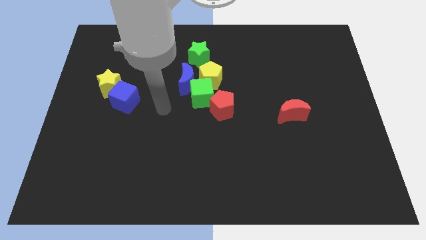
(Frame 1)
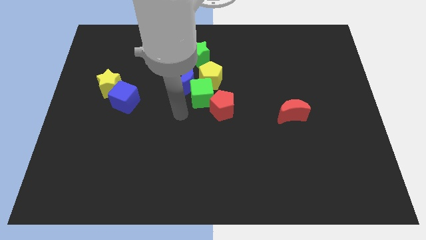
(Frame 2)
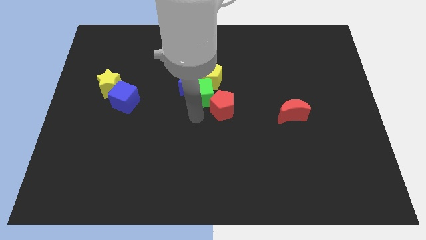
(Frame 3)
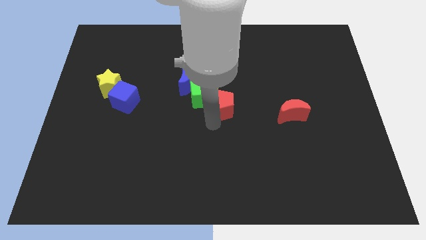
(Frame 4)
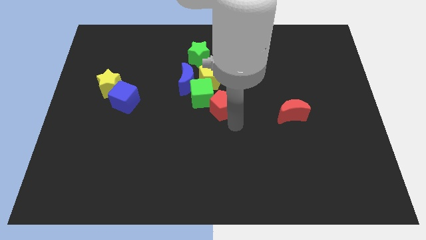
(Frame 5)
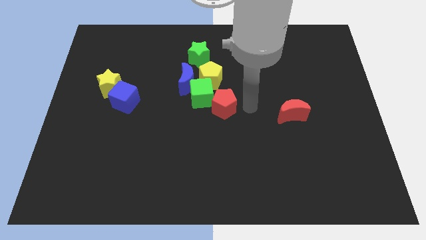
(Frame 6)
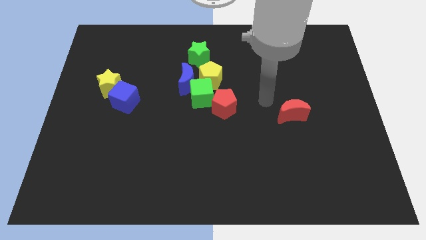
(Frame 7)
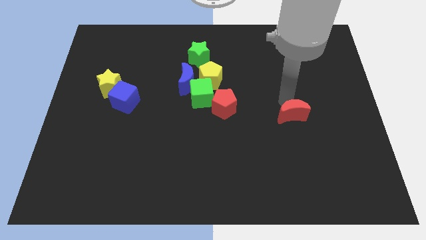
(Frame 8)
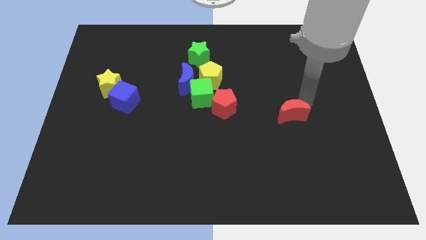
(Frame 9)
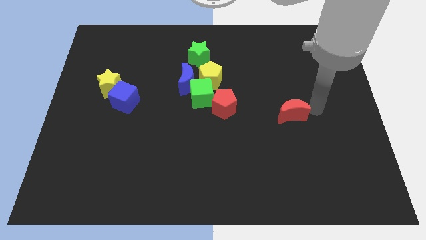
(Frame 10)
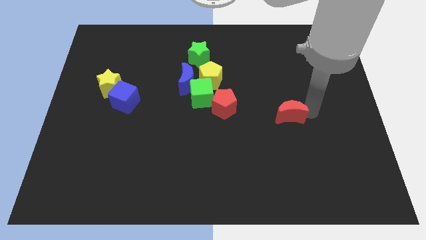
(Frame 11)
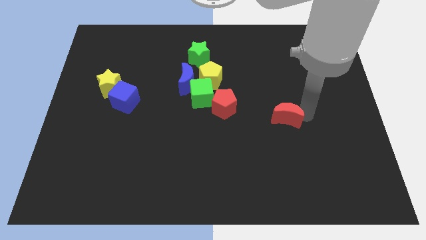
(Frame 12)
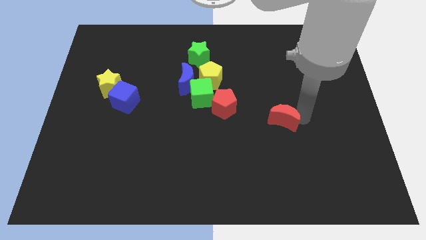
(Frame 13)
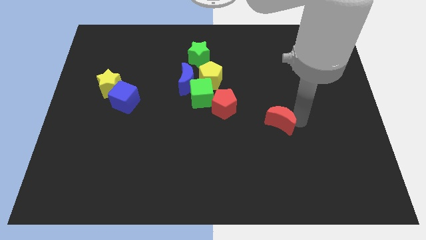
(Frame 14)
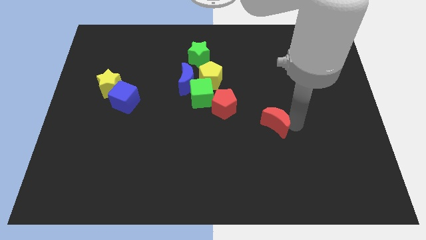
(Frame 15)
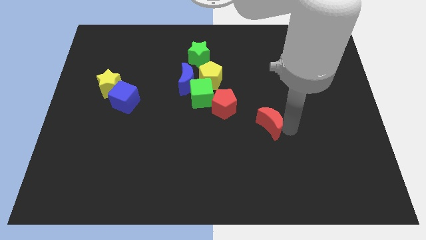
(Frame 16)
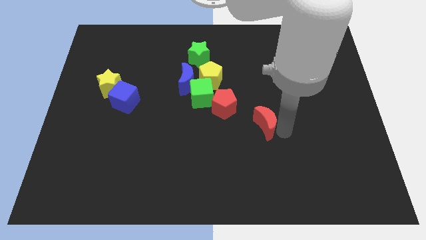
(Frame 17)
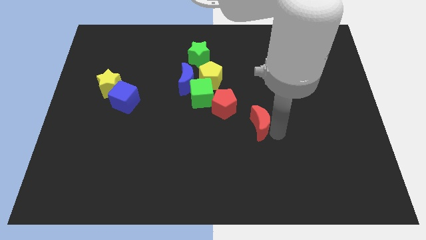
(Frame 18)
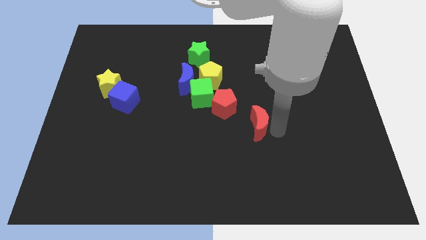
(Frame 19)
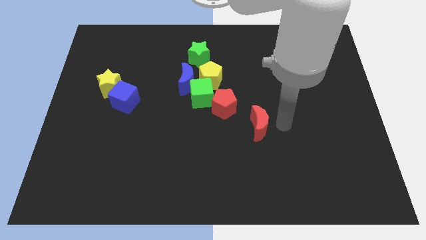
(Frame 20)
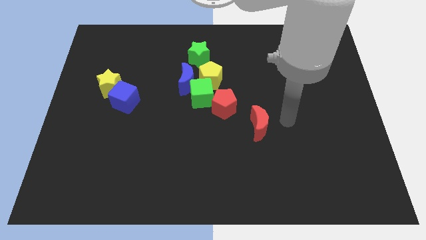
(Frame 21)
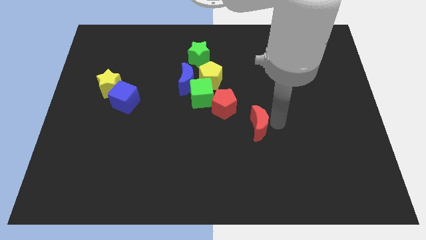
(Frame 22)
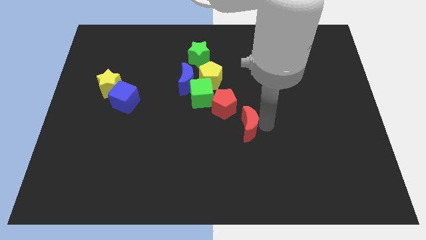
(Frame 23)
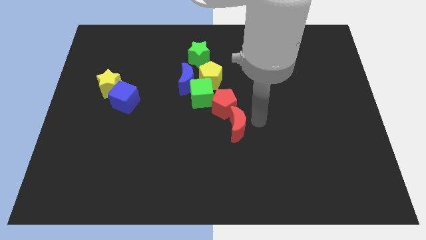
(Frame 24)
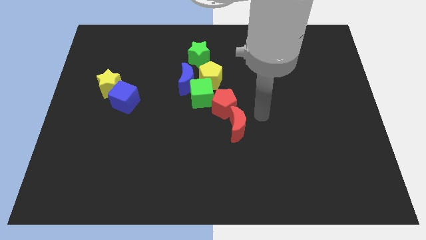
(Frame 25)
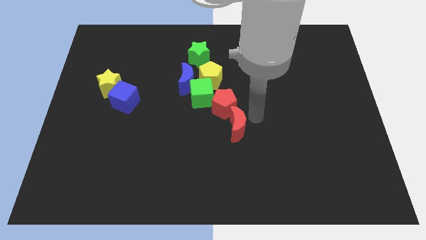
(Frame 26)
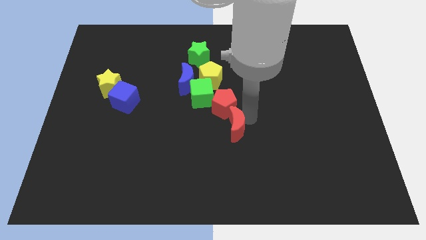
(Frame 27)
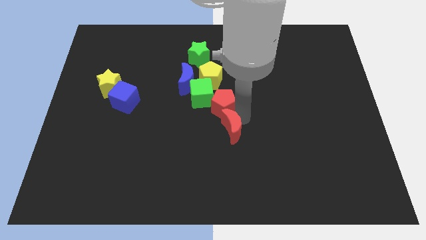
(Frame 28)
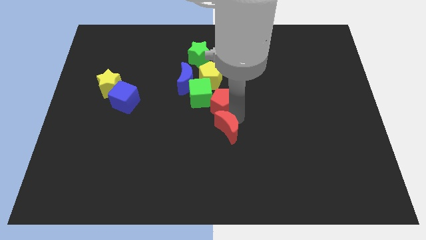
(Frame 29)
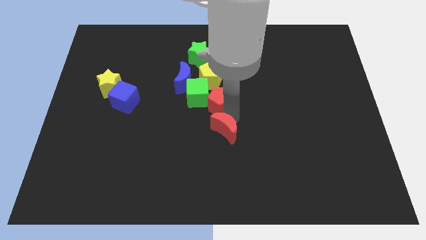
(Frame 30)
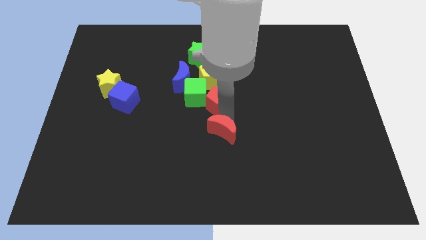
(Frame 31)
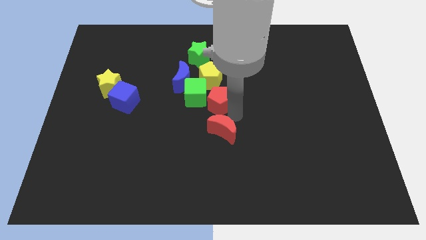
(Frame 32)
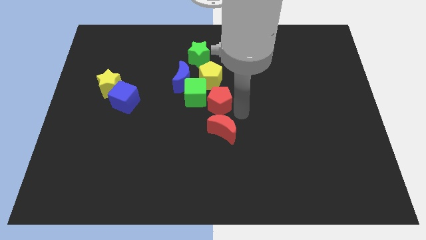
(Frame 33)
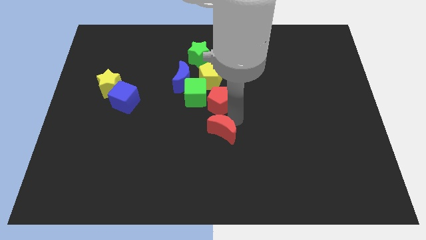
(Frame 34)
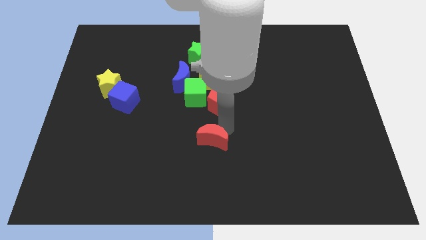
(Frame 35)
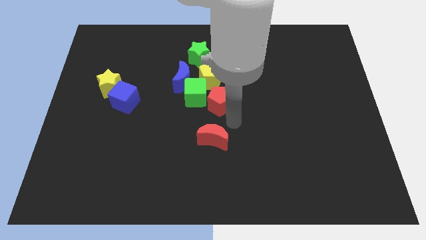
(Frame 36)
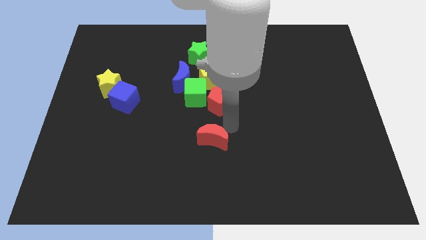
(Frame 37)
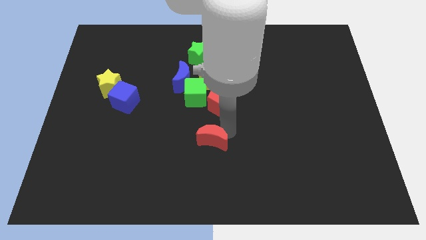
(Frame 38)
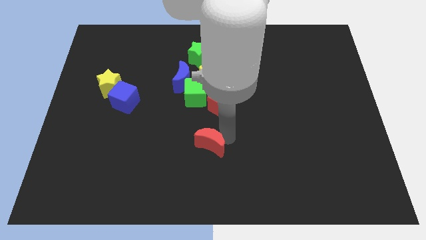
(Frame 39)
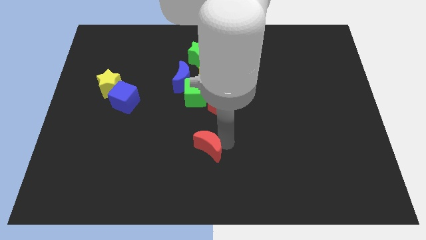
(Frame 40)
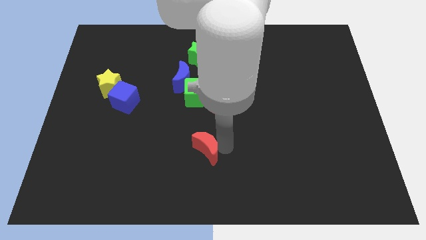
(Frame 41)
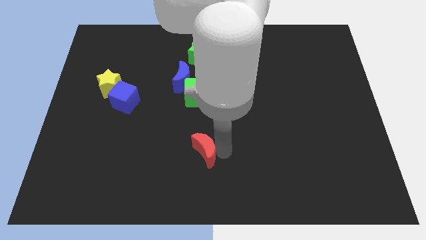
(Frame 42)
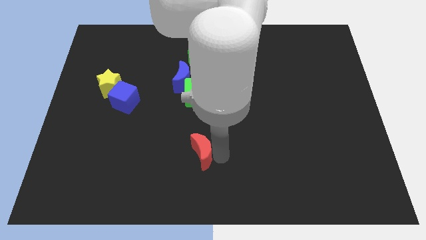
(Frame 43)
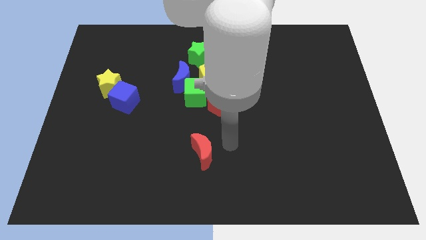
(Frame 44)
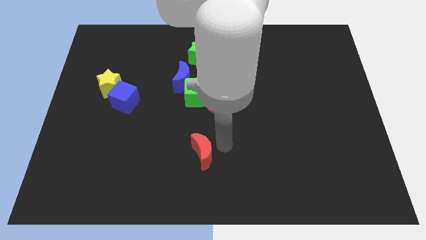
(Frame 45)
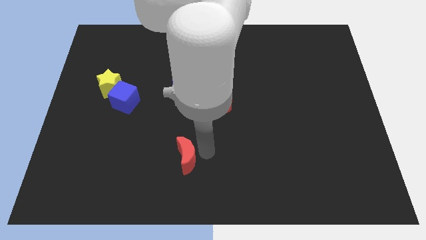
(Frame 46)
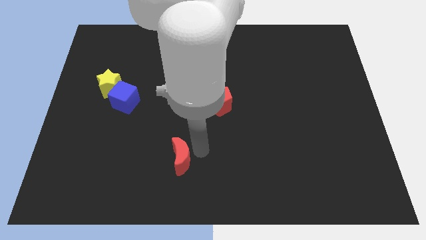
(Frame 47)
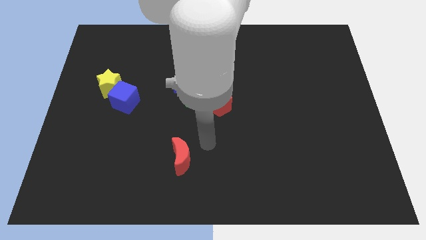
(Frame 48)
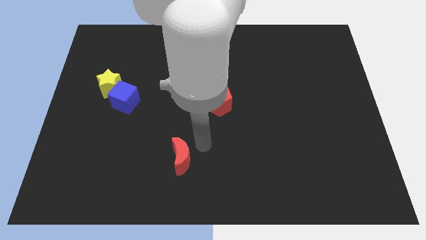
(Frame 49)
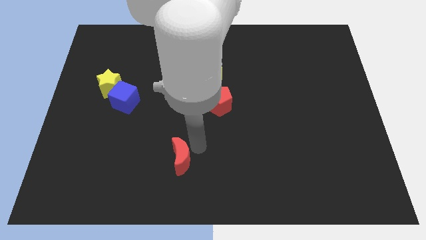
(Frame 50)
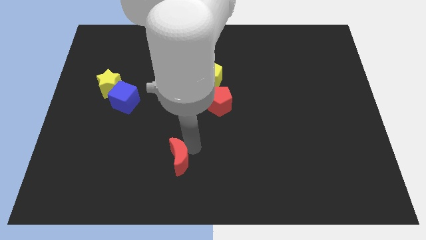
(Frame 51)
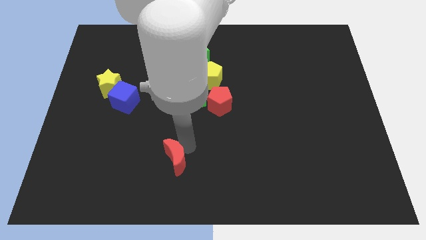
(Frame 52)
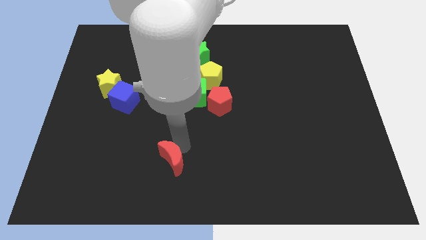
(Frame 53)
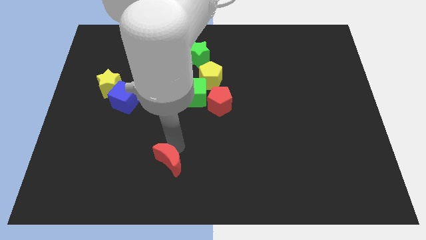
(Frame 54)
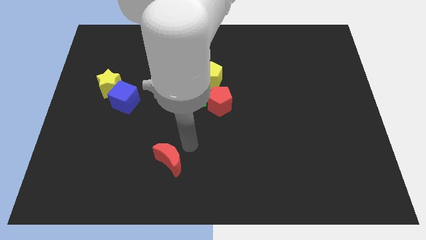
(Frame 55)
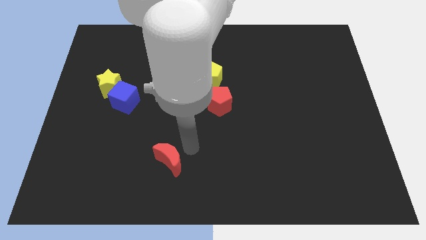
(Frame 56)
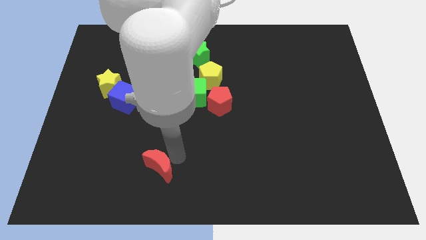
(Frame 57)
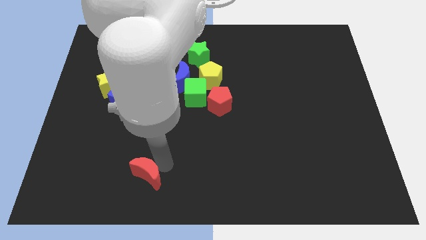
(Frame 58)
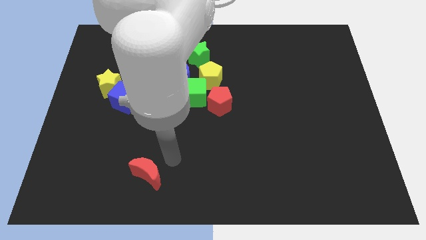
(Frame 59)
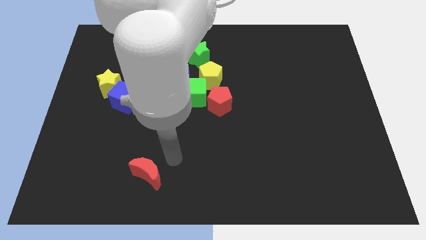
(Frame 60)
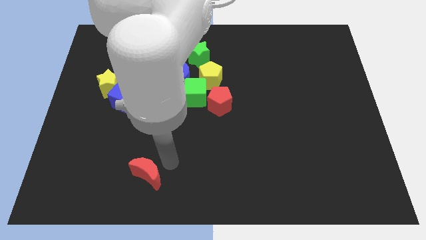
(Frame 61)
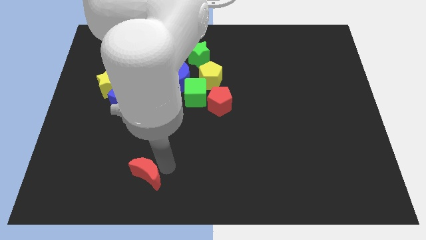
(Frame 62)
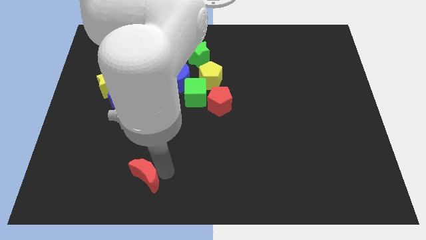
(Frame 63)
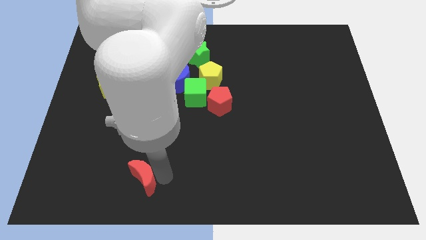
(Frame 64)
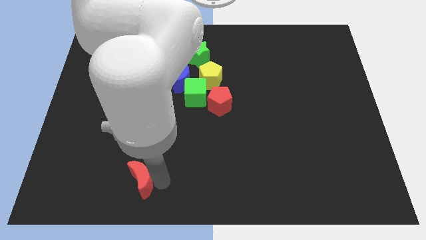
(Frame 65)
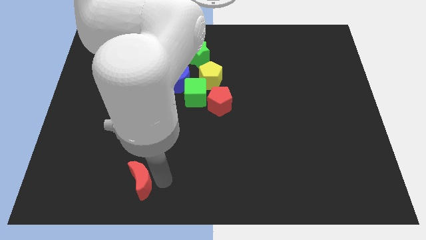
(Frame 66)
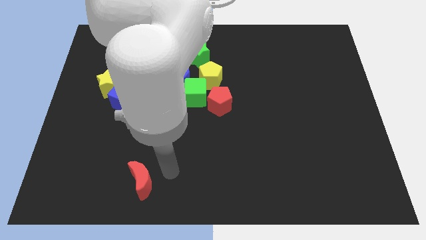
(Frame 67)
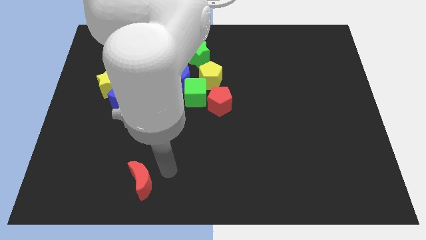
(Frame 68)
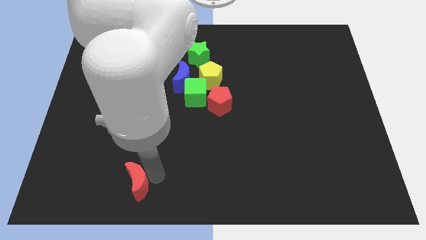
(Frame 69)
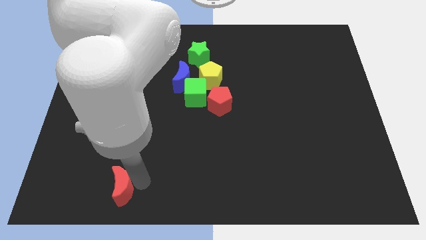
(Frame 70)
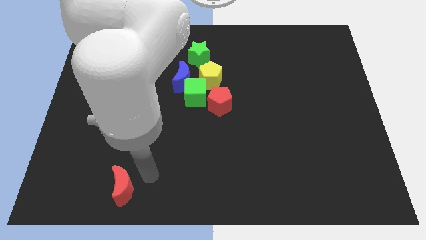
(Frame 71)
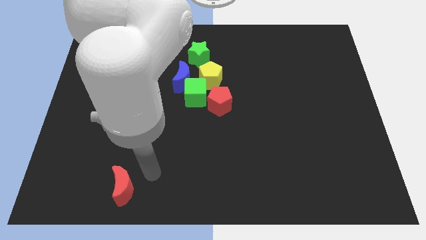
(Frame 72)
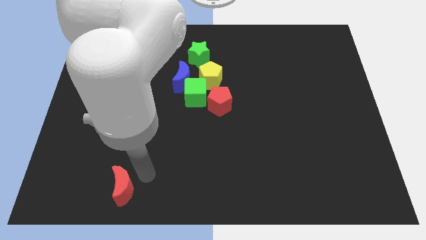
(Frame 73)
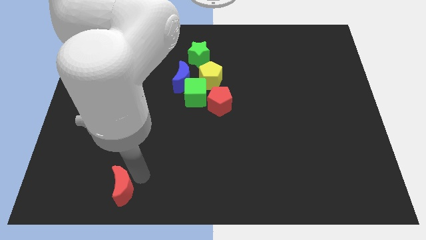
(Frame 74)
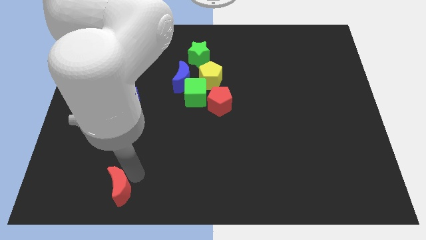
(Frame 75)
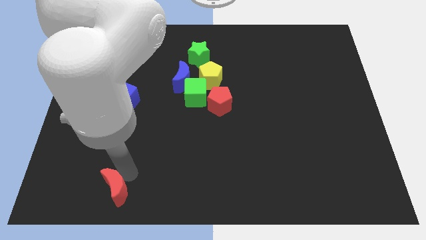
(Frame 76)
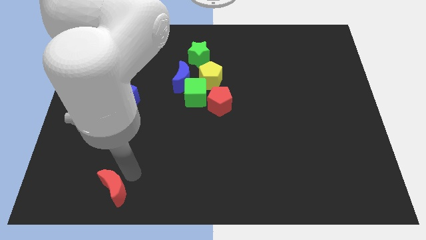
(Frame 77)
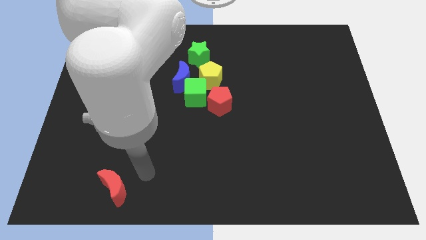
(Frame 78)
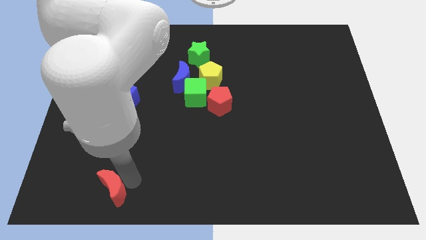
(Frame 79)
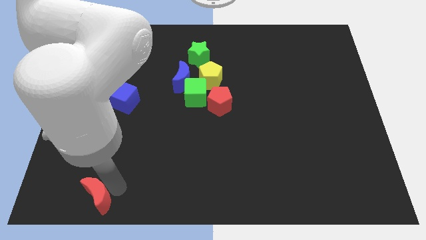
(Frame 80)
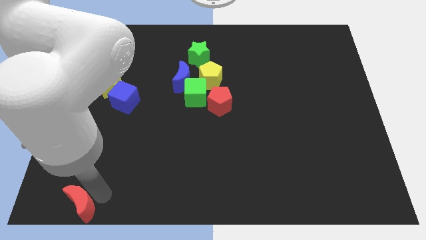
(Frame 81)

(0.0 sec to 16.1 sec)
put the red moon to the bottom left of the board
